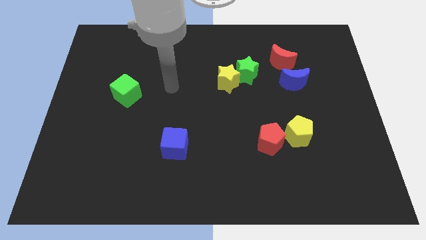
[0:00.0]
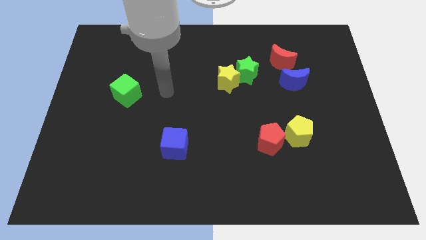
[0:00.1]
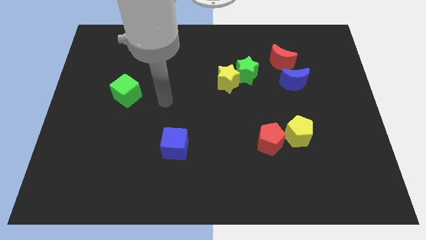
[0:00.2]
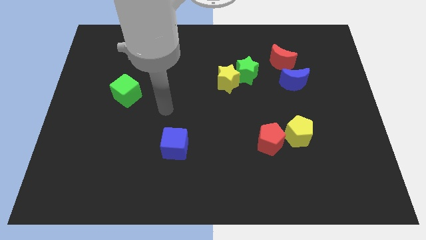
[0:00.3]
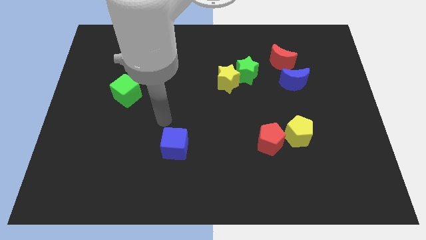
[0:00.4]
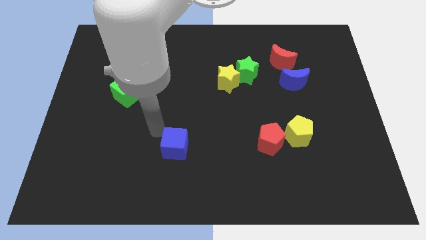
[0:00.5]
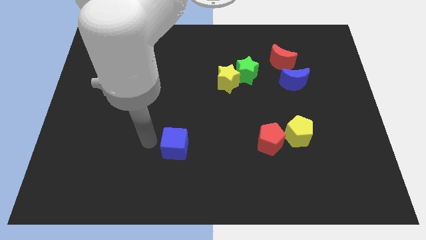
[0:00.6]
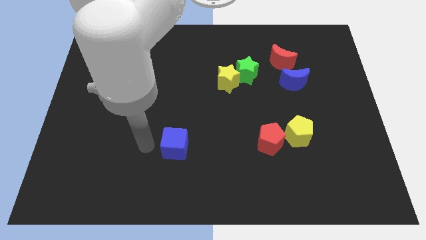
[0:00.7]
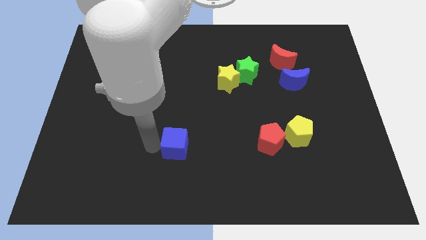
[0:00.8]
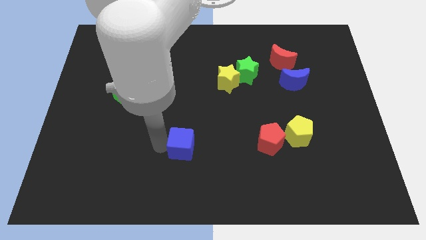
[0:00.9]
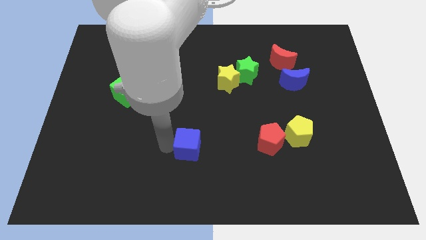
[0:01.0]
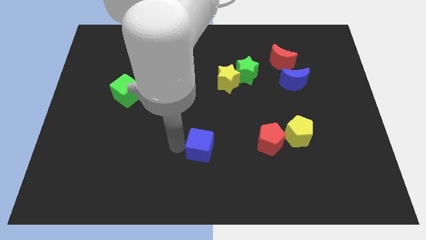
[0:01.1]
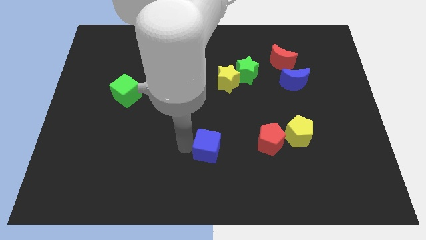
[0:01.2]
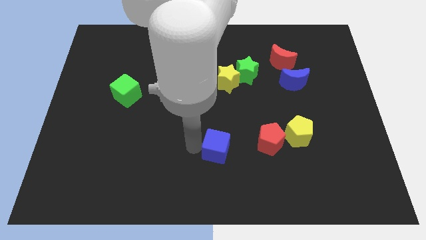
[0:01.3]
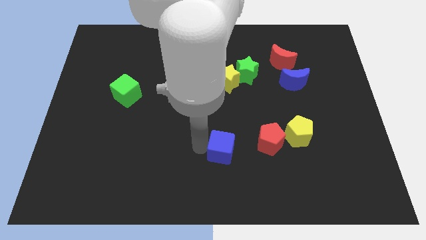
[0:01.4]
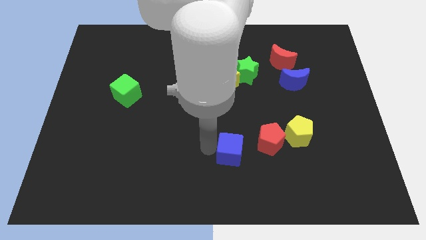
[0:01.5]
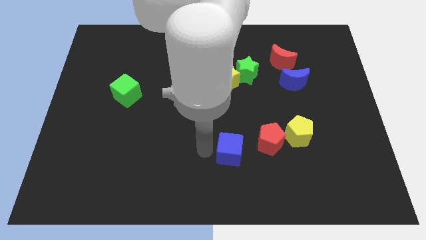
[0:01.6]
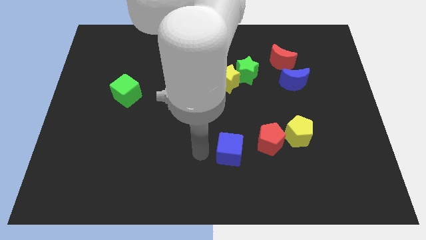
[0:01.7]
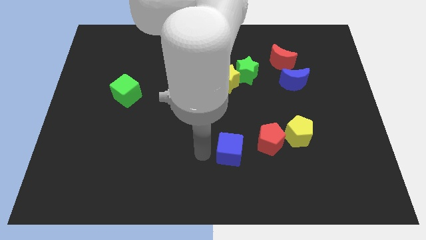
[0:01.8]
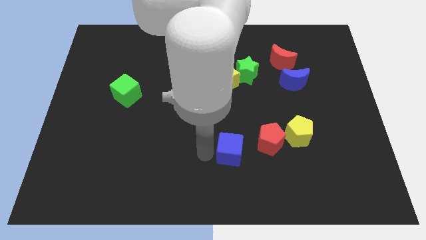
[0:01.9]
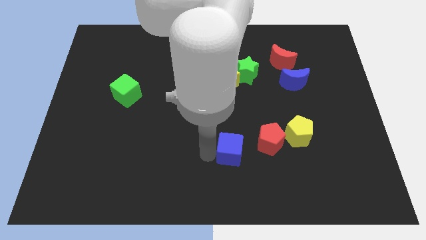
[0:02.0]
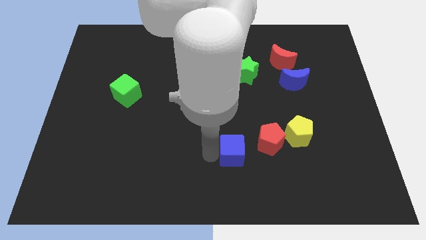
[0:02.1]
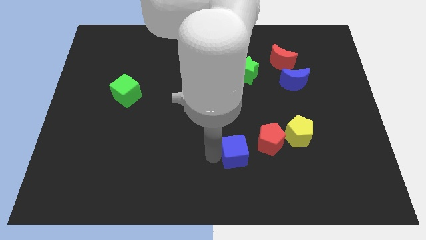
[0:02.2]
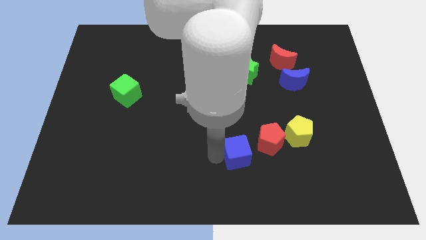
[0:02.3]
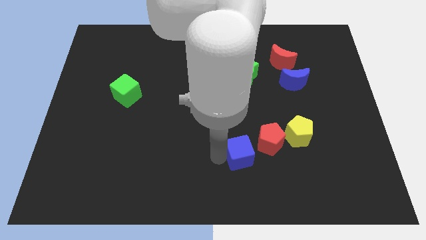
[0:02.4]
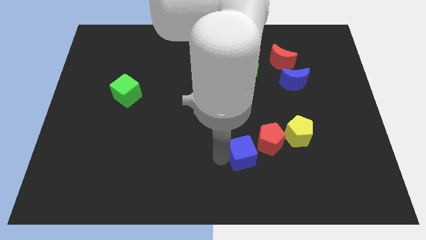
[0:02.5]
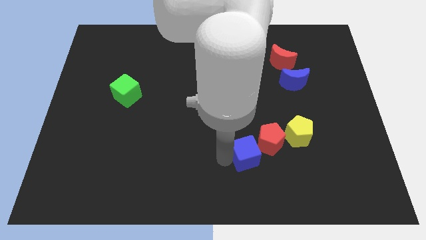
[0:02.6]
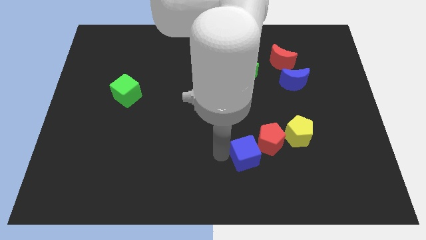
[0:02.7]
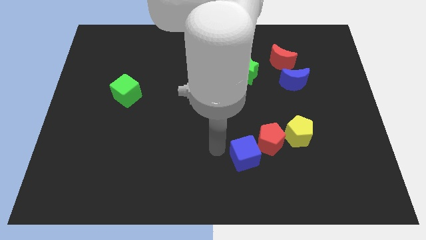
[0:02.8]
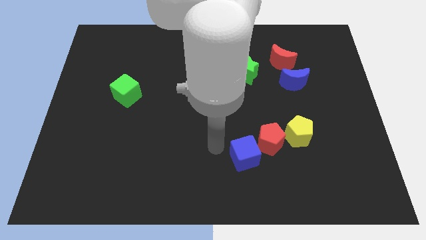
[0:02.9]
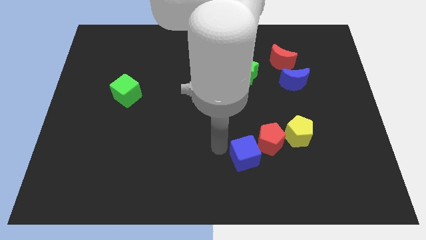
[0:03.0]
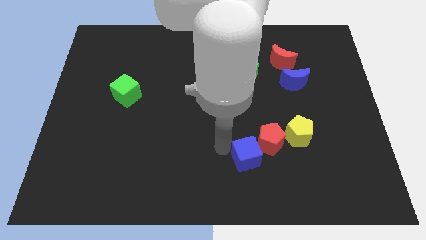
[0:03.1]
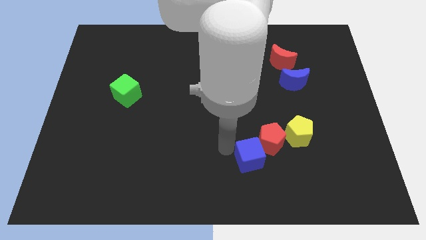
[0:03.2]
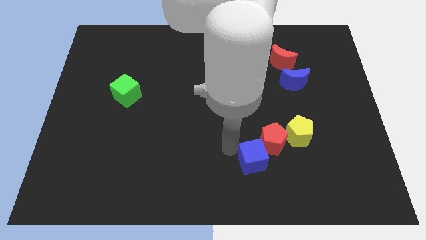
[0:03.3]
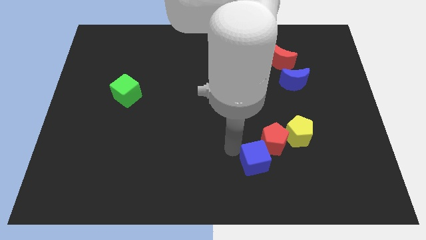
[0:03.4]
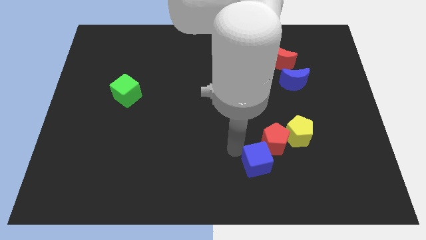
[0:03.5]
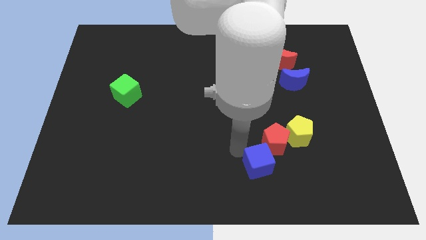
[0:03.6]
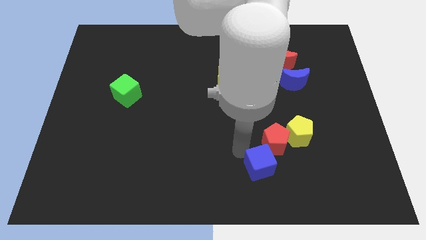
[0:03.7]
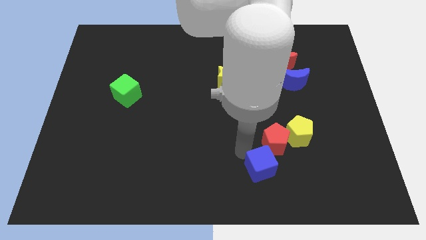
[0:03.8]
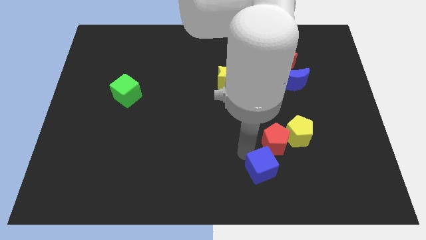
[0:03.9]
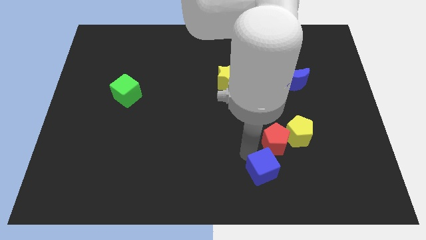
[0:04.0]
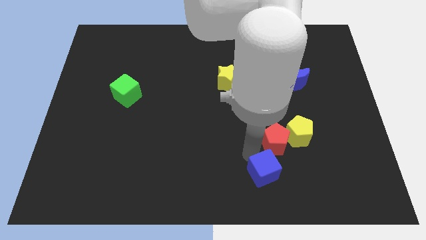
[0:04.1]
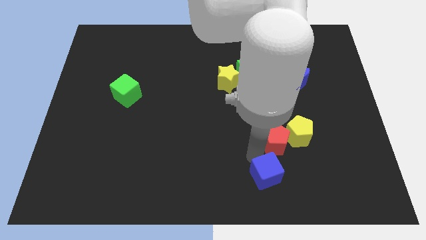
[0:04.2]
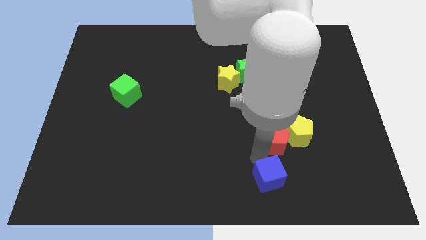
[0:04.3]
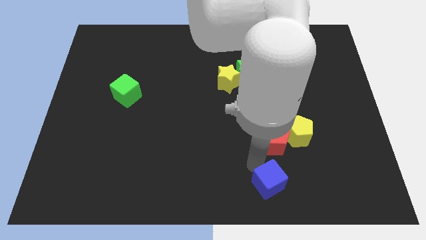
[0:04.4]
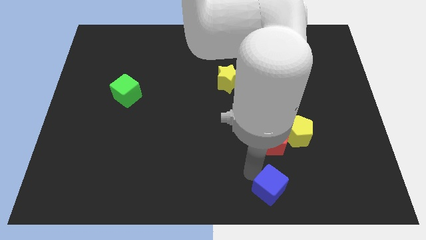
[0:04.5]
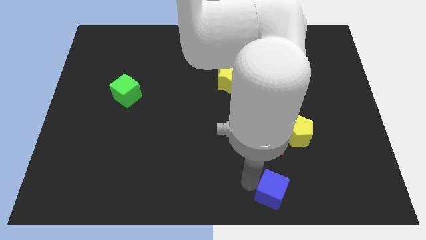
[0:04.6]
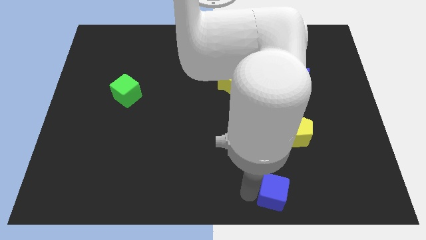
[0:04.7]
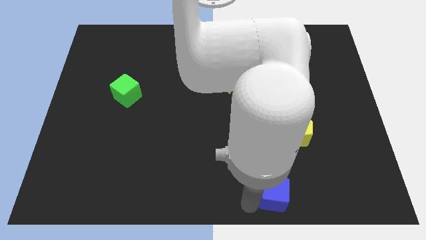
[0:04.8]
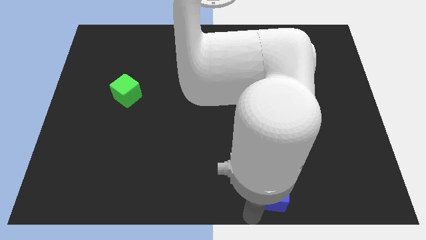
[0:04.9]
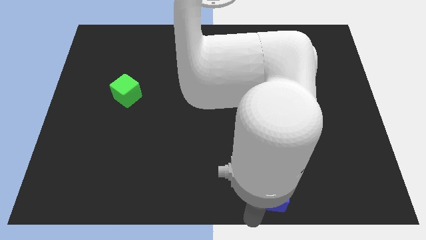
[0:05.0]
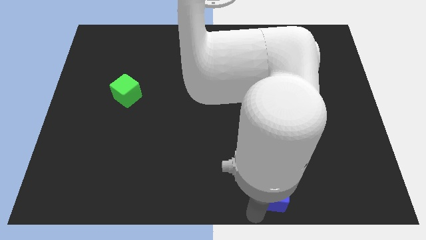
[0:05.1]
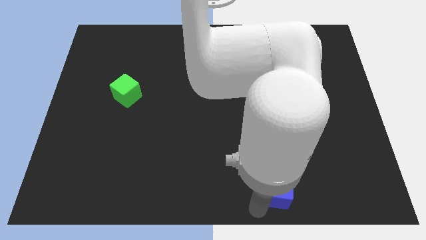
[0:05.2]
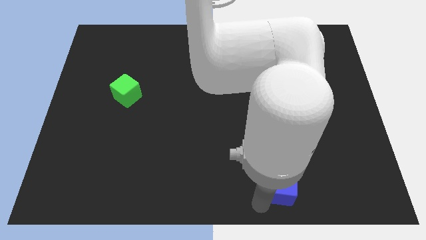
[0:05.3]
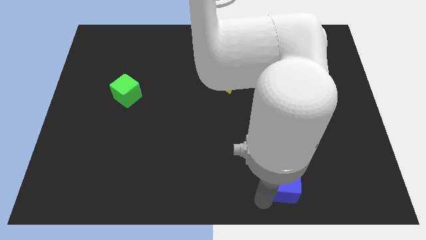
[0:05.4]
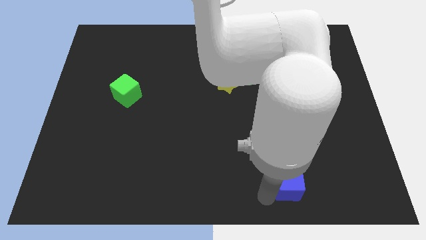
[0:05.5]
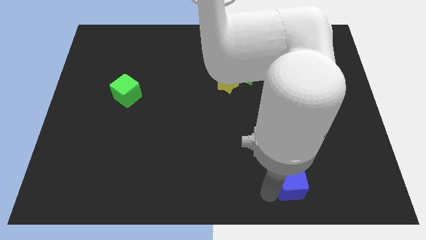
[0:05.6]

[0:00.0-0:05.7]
push the blue cube to the right

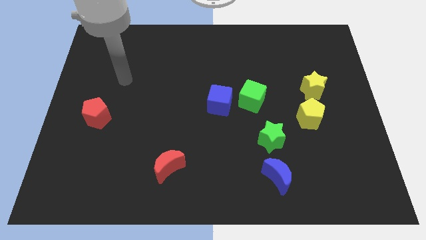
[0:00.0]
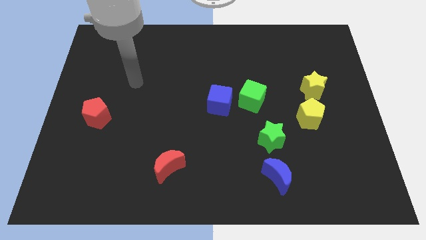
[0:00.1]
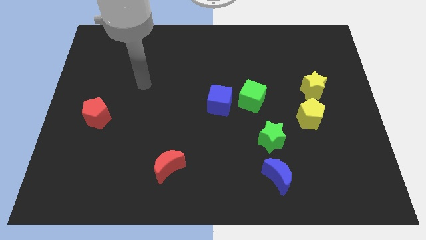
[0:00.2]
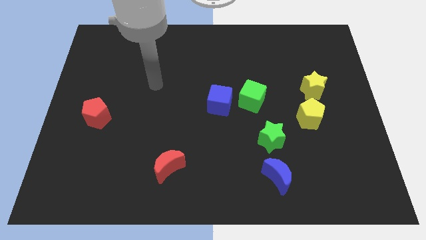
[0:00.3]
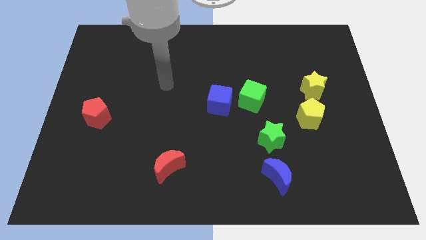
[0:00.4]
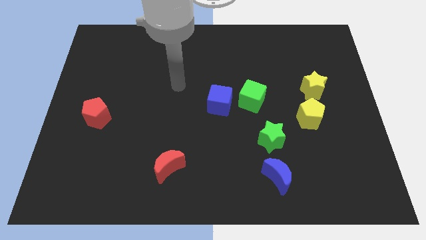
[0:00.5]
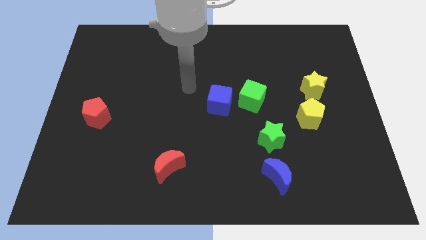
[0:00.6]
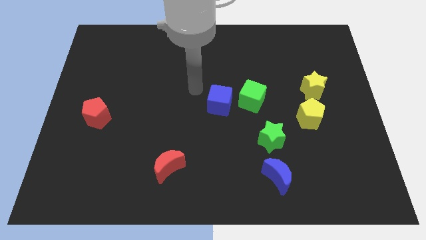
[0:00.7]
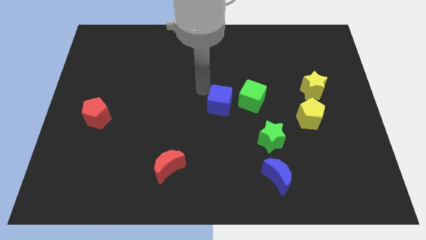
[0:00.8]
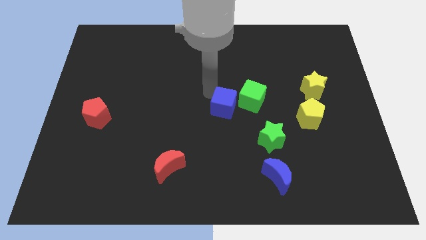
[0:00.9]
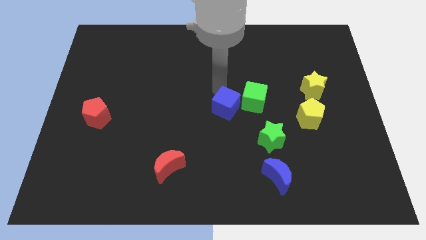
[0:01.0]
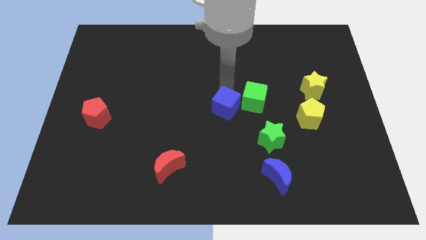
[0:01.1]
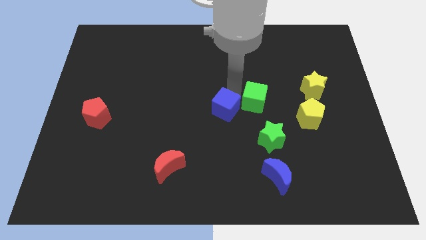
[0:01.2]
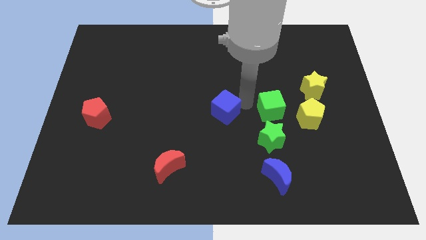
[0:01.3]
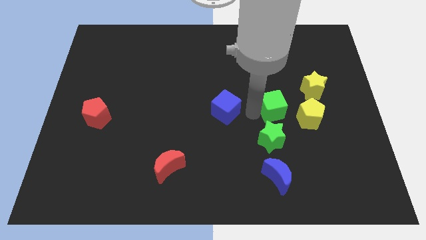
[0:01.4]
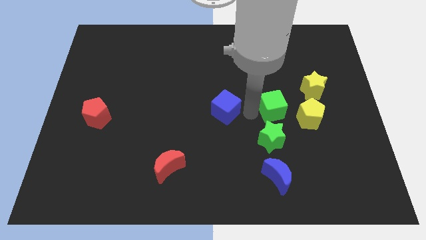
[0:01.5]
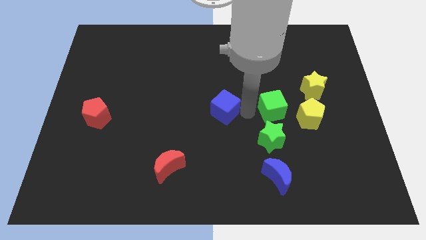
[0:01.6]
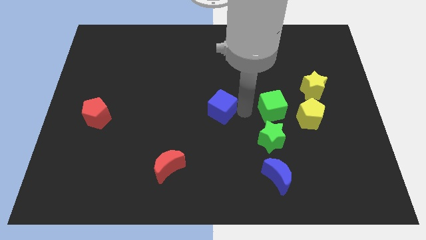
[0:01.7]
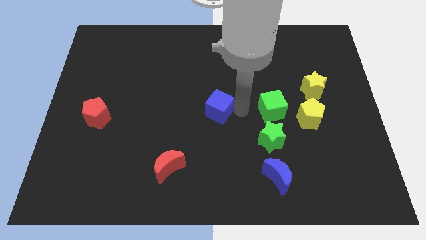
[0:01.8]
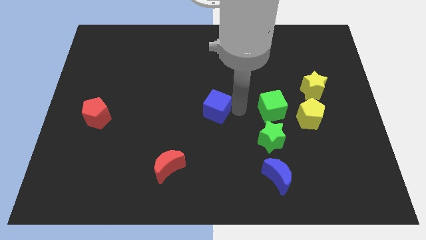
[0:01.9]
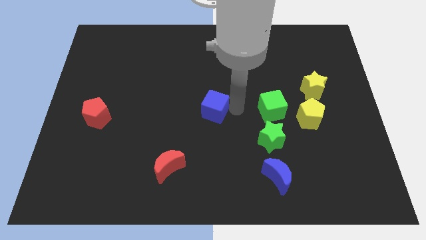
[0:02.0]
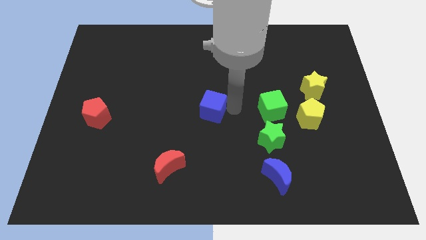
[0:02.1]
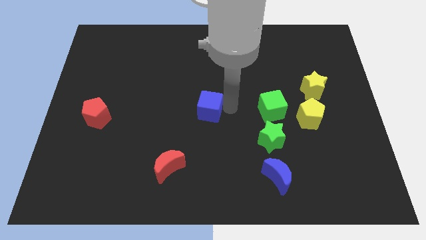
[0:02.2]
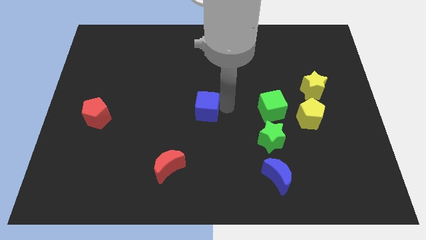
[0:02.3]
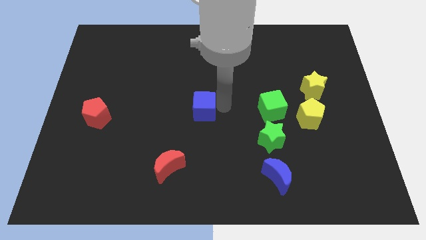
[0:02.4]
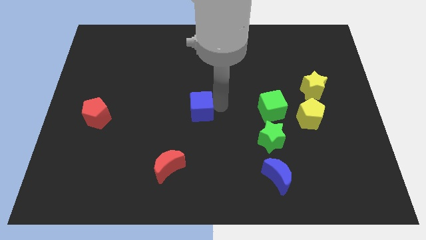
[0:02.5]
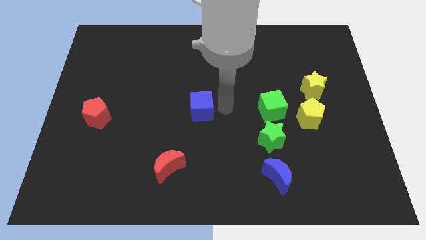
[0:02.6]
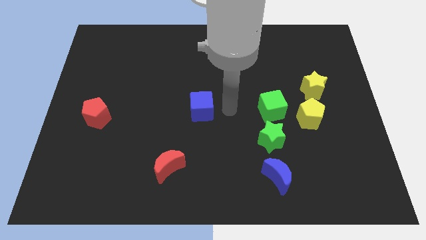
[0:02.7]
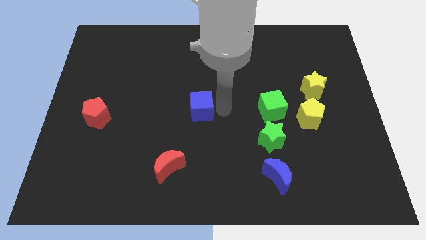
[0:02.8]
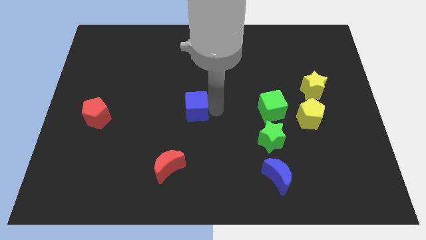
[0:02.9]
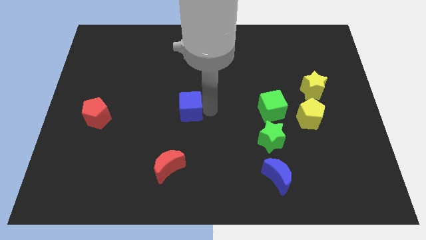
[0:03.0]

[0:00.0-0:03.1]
push the blue cube slightly to the left
